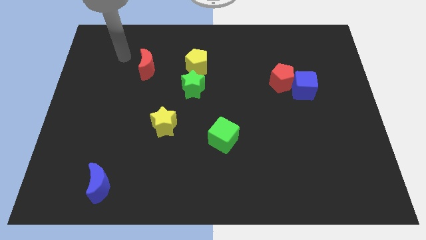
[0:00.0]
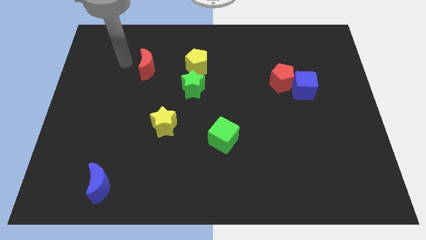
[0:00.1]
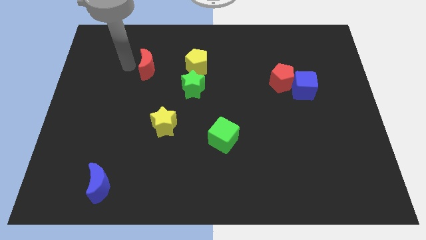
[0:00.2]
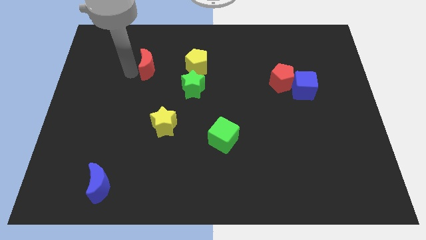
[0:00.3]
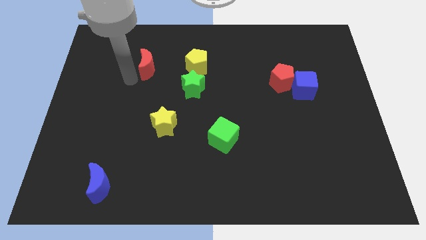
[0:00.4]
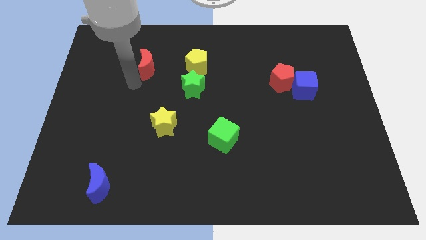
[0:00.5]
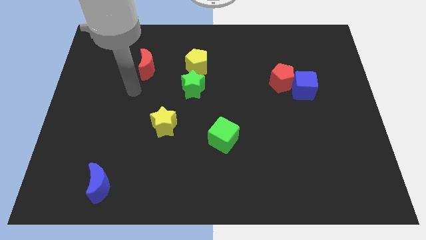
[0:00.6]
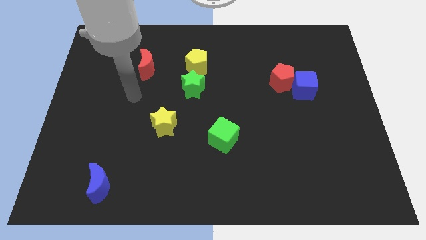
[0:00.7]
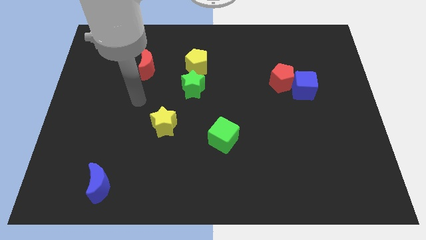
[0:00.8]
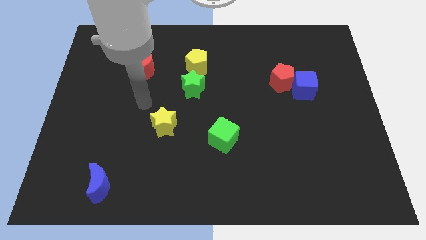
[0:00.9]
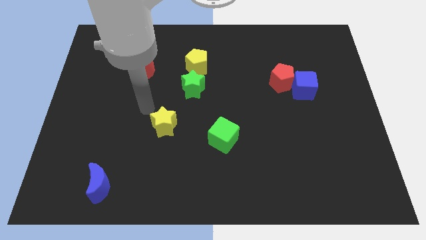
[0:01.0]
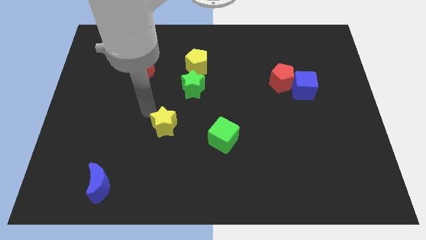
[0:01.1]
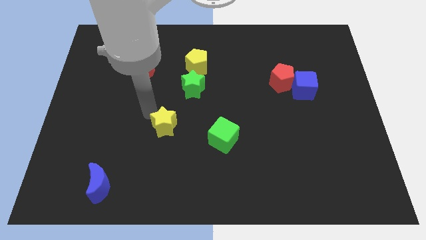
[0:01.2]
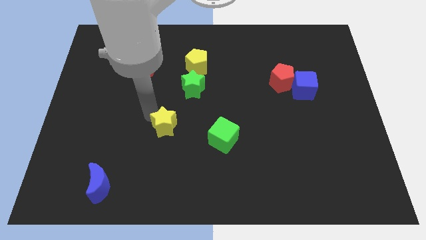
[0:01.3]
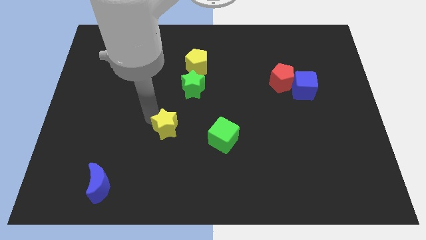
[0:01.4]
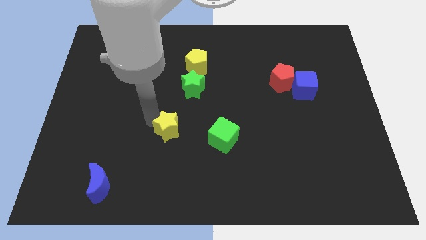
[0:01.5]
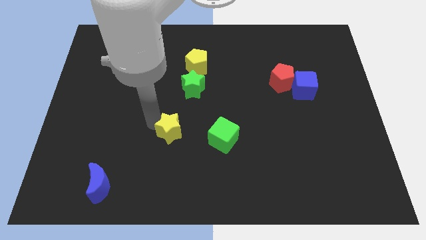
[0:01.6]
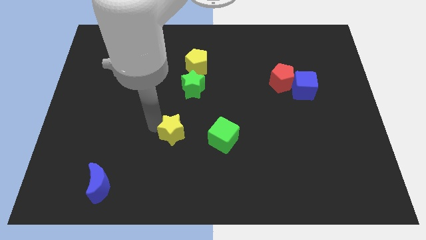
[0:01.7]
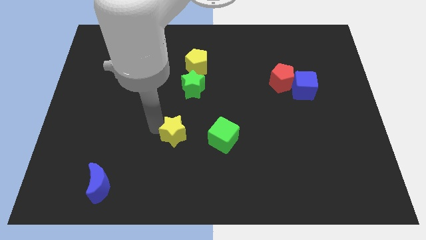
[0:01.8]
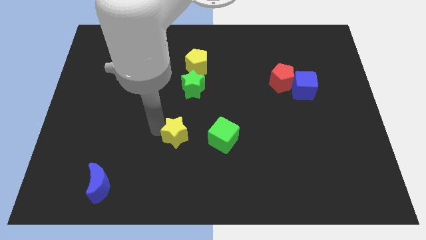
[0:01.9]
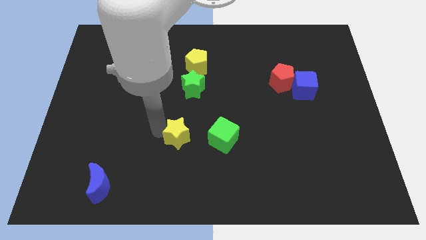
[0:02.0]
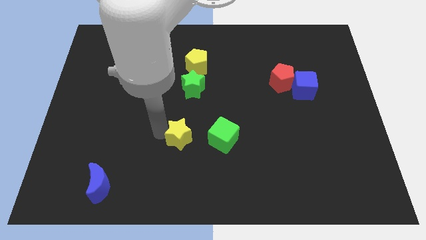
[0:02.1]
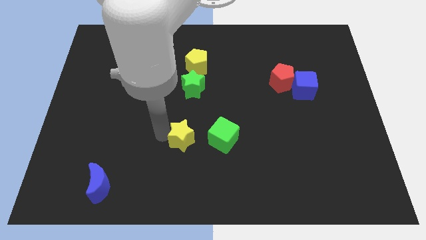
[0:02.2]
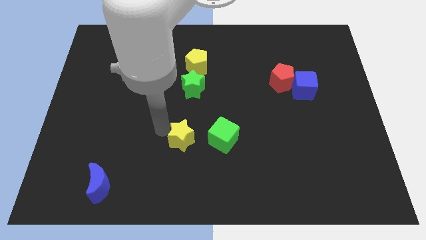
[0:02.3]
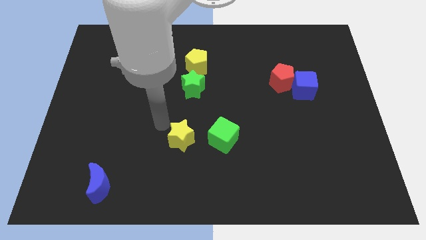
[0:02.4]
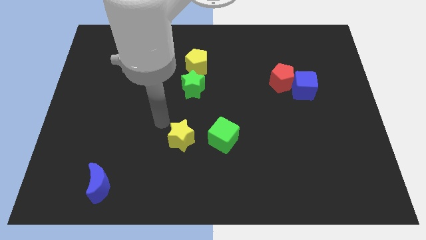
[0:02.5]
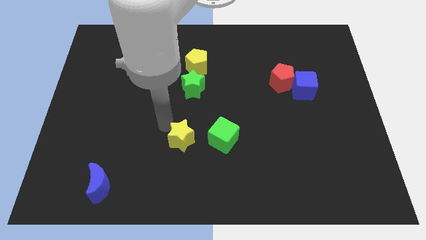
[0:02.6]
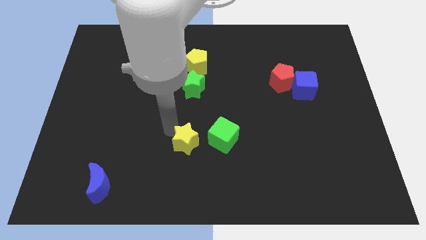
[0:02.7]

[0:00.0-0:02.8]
slide the yellow star down and then right a little bit

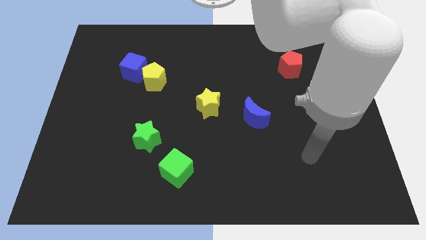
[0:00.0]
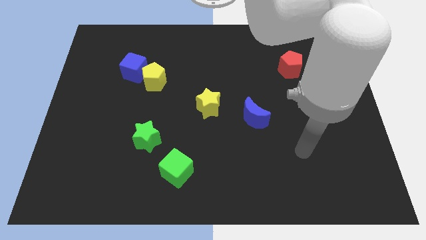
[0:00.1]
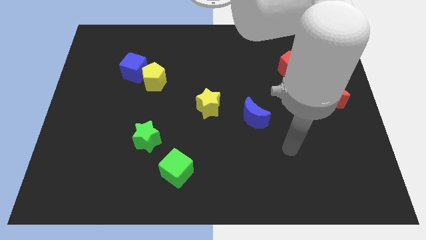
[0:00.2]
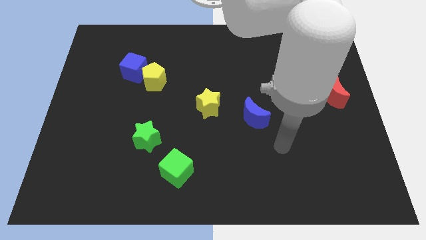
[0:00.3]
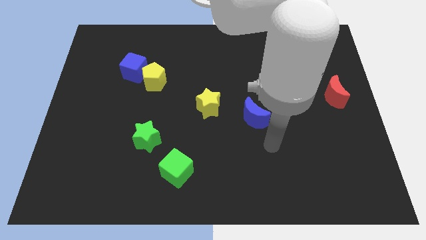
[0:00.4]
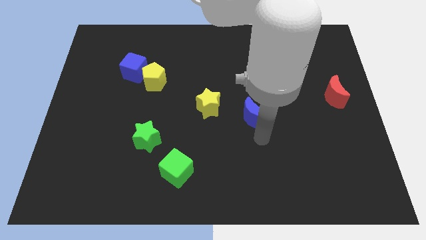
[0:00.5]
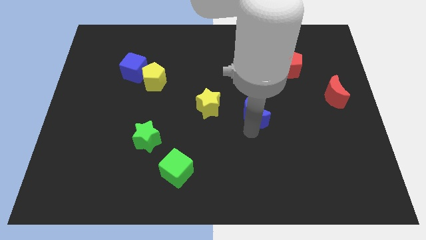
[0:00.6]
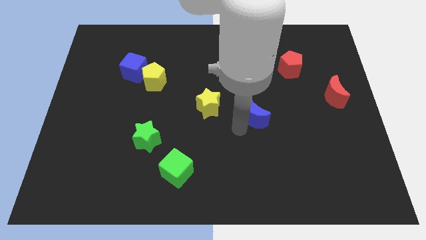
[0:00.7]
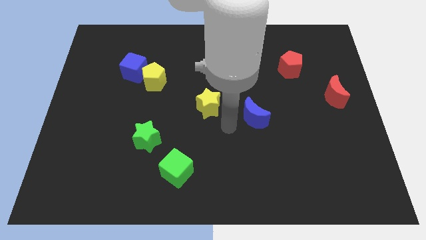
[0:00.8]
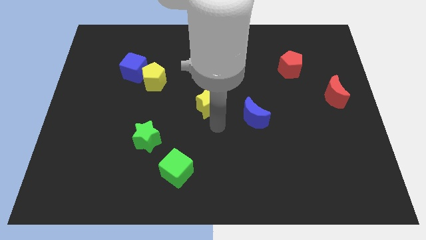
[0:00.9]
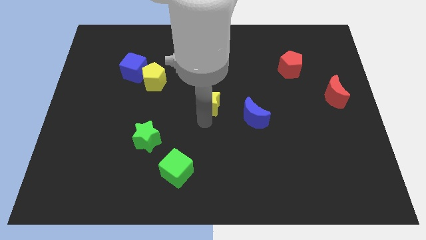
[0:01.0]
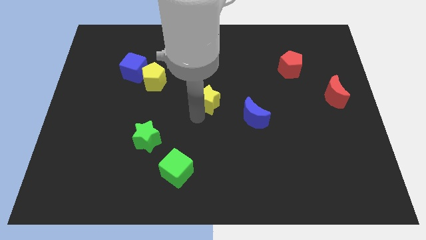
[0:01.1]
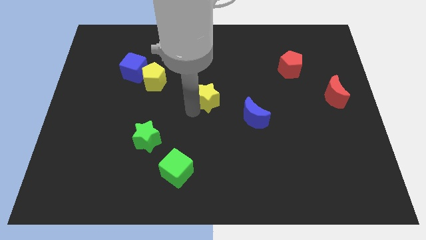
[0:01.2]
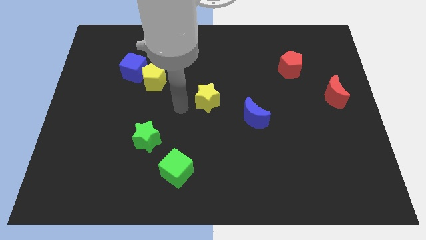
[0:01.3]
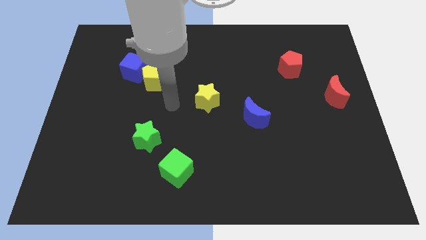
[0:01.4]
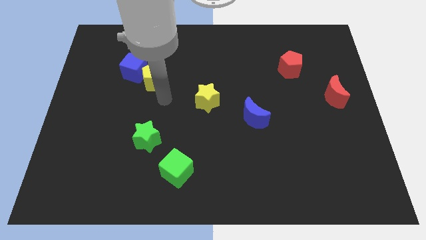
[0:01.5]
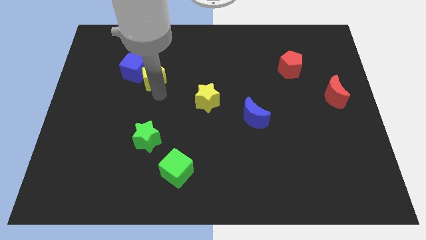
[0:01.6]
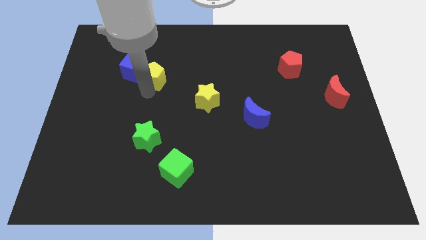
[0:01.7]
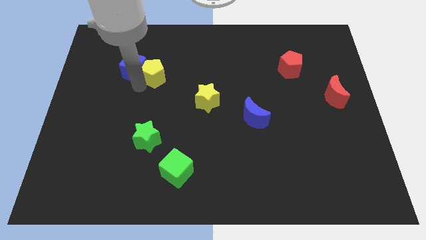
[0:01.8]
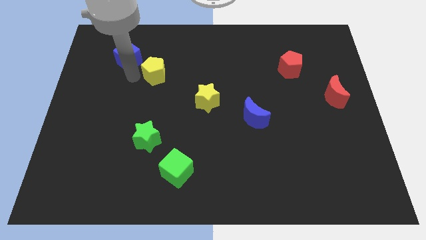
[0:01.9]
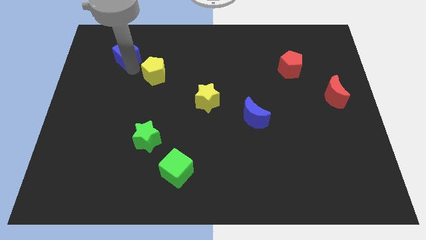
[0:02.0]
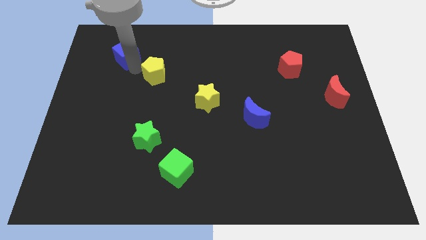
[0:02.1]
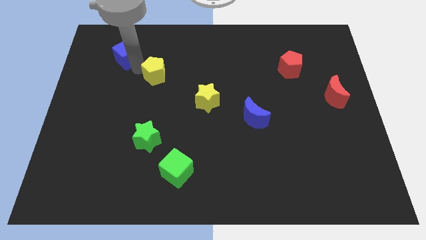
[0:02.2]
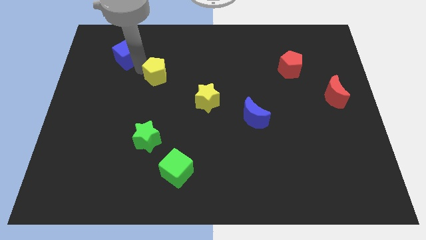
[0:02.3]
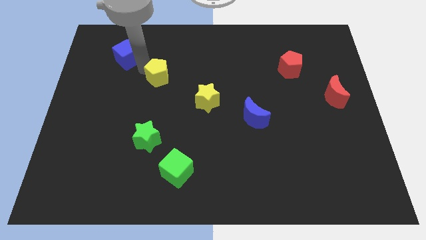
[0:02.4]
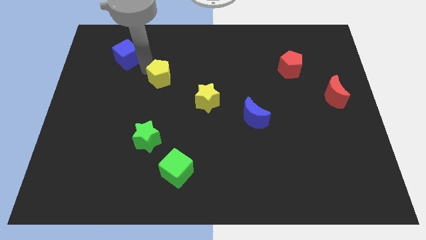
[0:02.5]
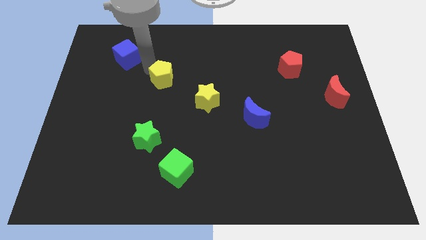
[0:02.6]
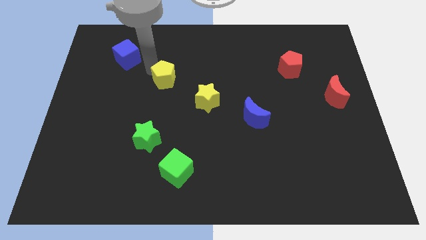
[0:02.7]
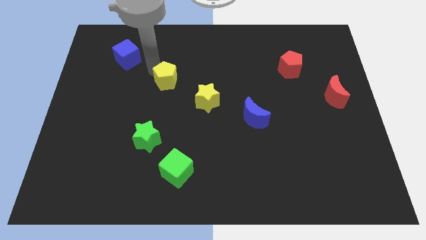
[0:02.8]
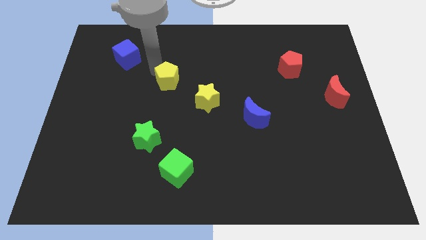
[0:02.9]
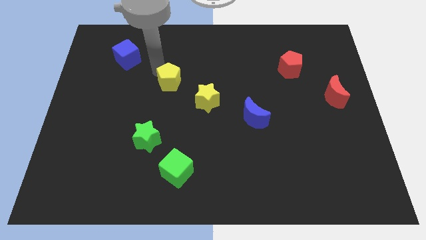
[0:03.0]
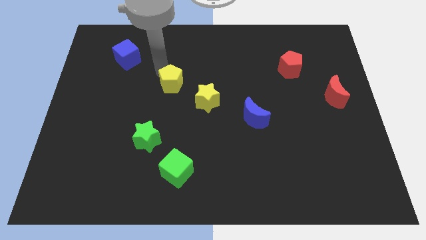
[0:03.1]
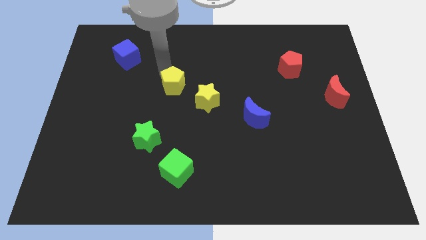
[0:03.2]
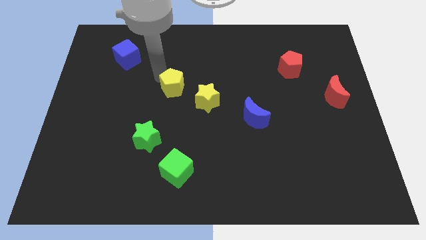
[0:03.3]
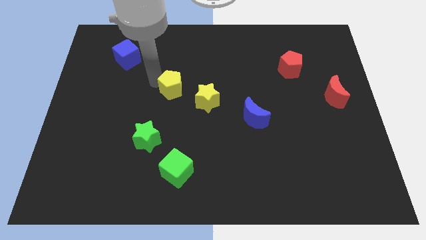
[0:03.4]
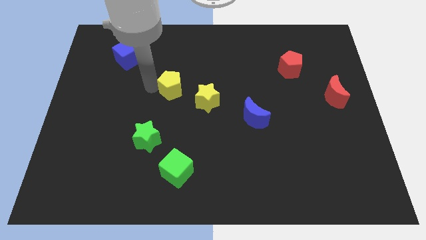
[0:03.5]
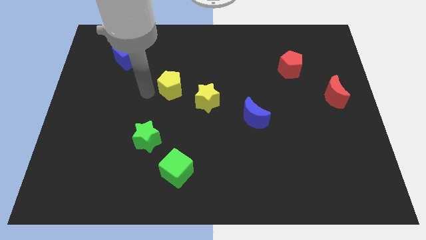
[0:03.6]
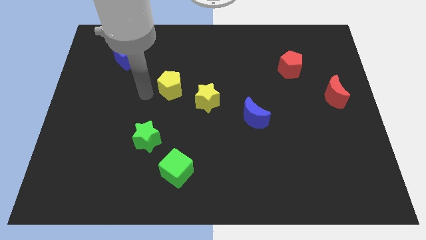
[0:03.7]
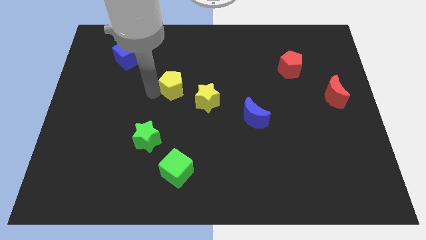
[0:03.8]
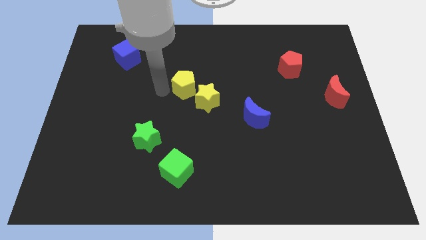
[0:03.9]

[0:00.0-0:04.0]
push the yellow pentagon somewhat right

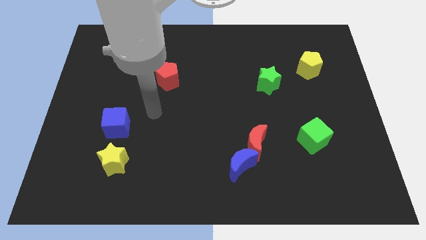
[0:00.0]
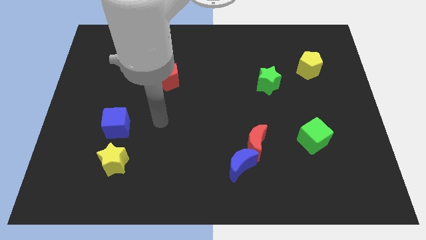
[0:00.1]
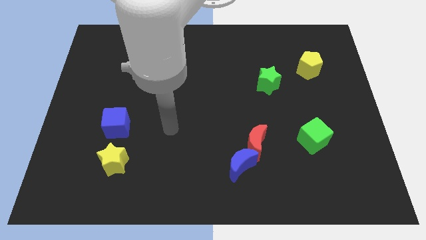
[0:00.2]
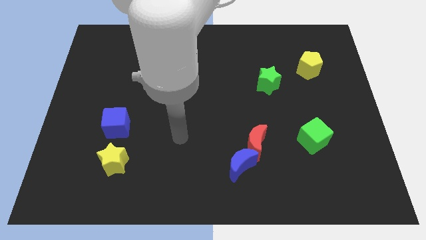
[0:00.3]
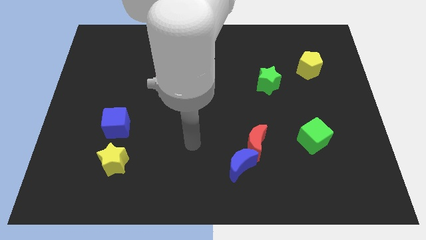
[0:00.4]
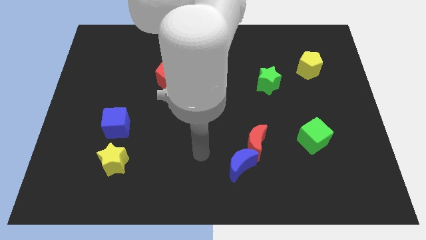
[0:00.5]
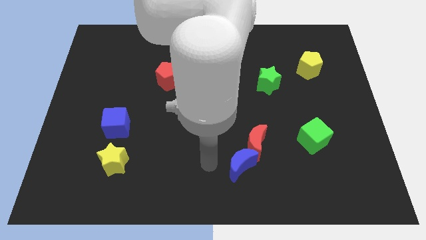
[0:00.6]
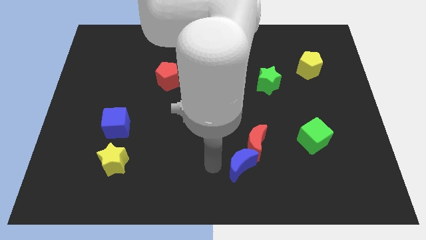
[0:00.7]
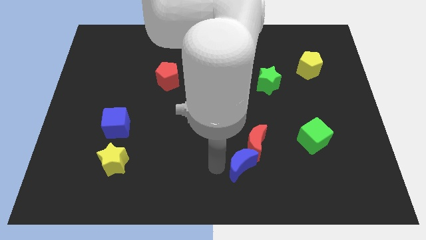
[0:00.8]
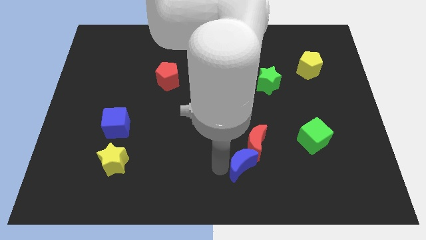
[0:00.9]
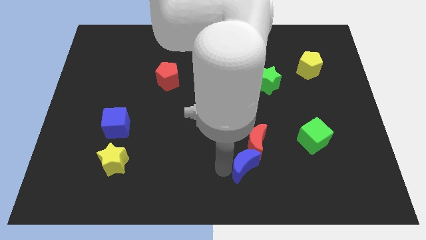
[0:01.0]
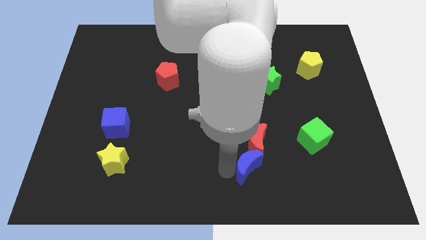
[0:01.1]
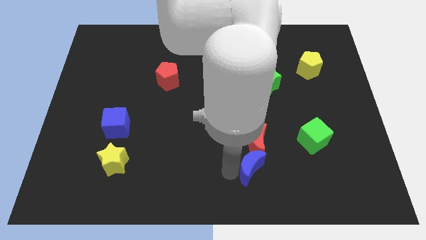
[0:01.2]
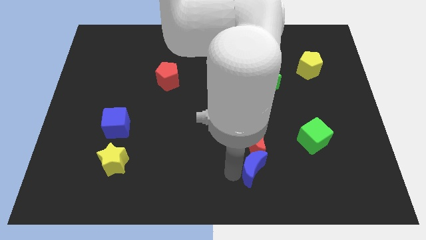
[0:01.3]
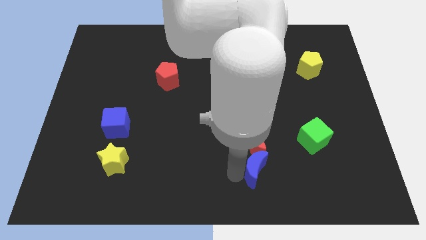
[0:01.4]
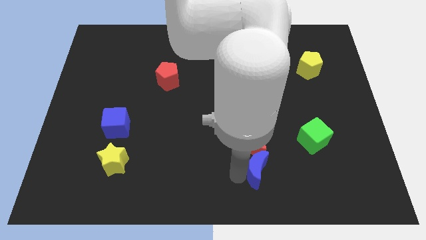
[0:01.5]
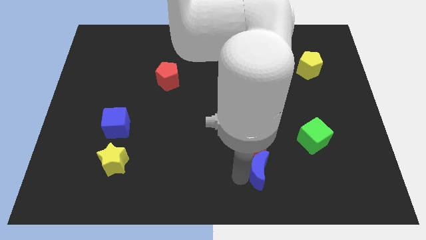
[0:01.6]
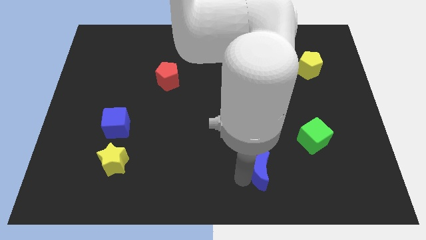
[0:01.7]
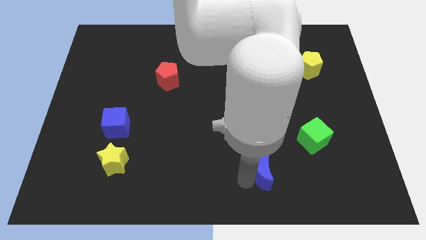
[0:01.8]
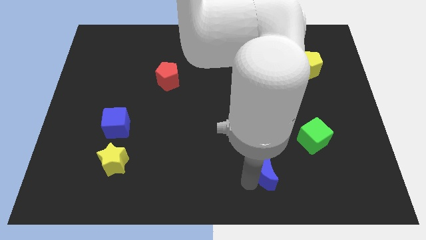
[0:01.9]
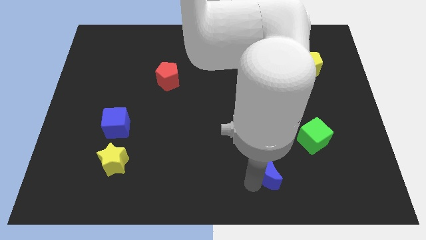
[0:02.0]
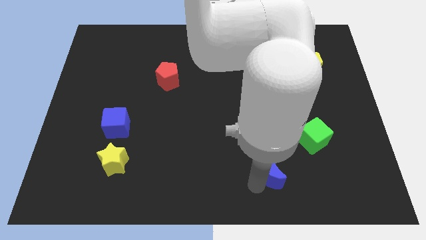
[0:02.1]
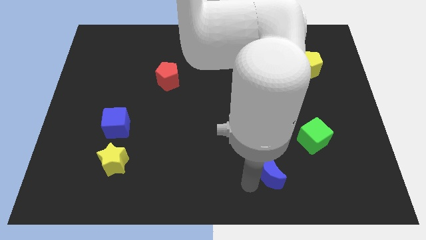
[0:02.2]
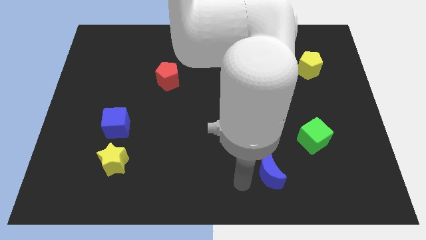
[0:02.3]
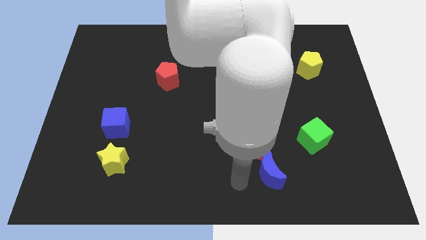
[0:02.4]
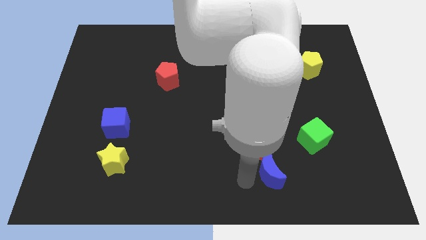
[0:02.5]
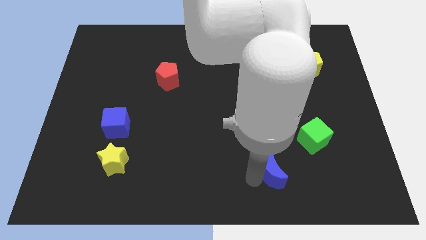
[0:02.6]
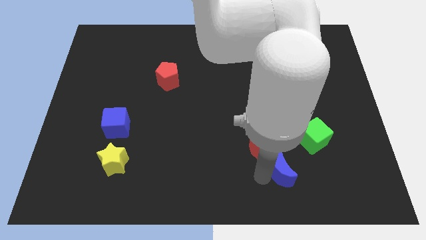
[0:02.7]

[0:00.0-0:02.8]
slide the blue moon a little bit right
